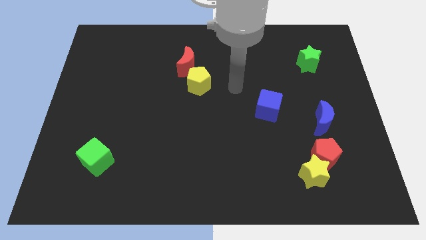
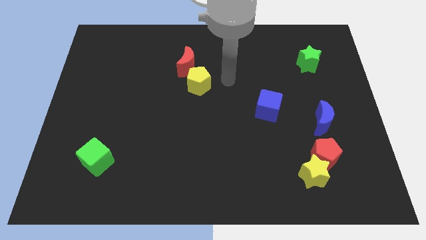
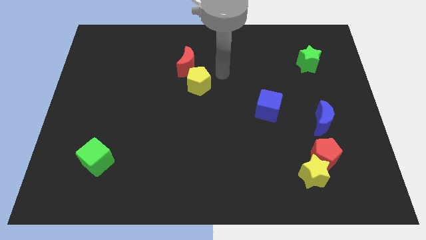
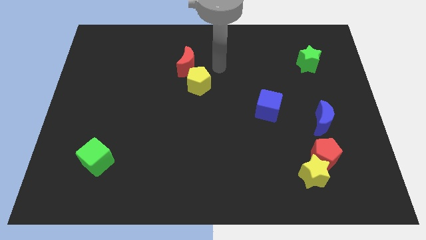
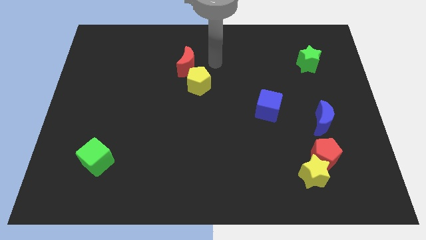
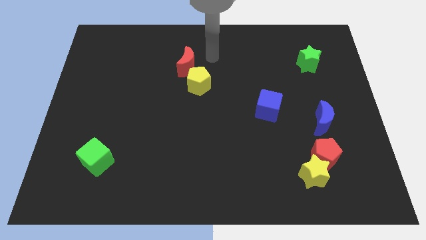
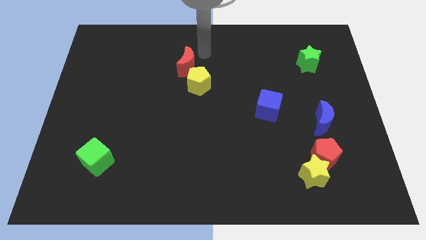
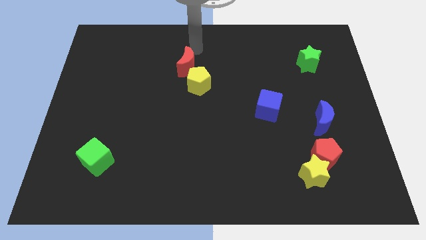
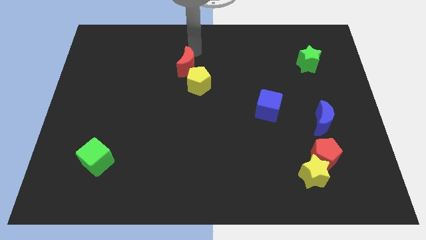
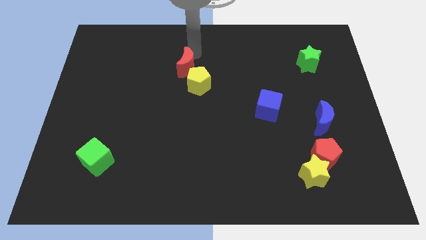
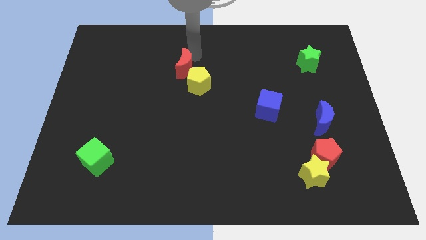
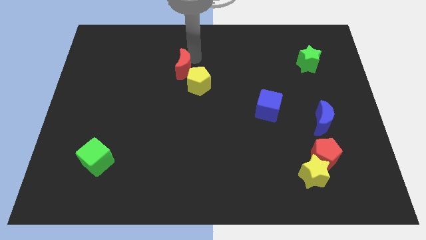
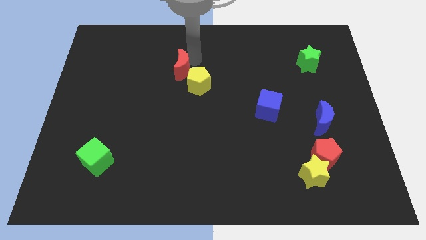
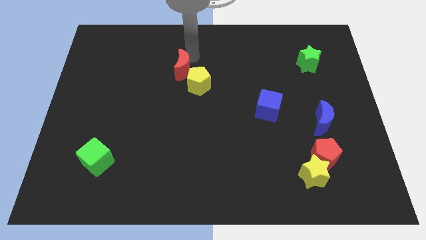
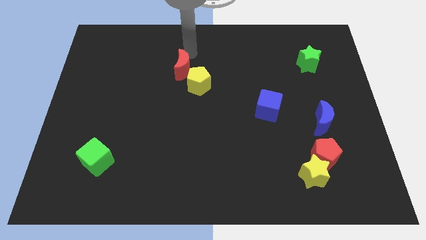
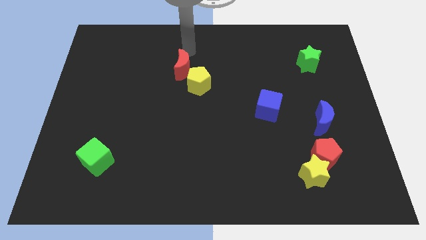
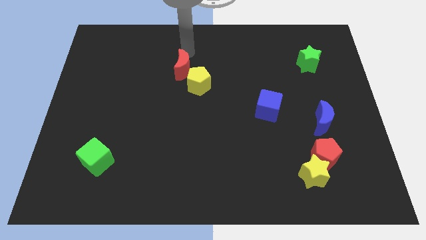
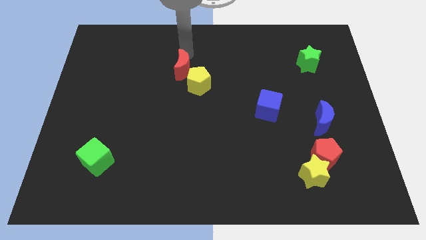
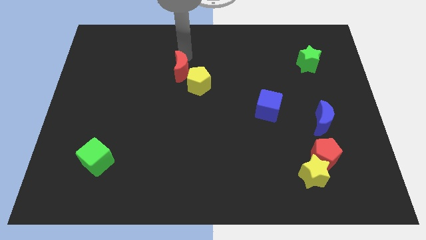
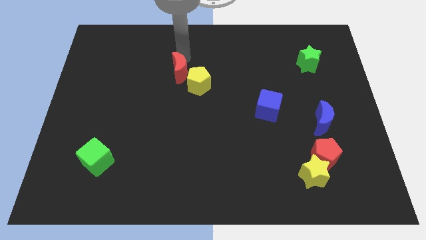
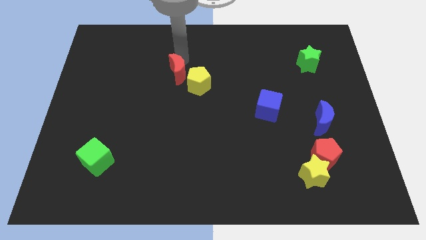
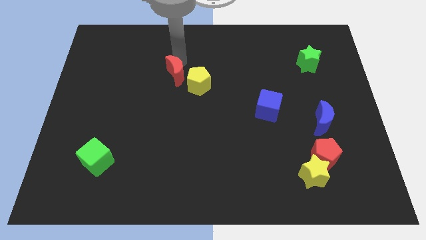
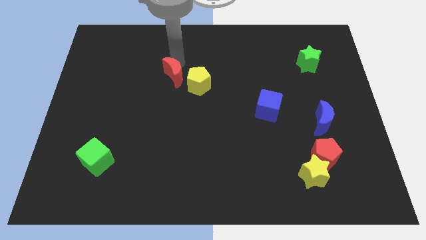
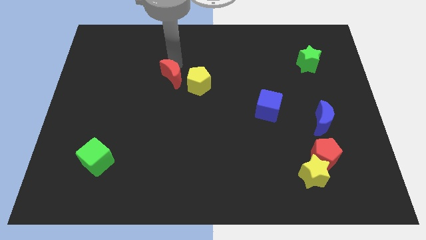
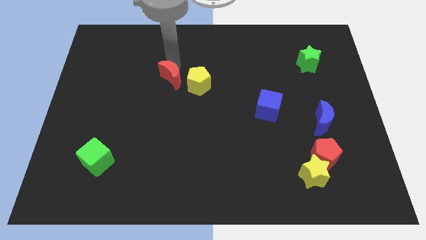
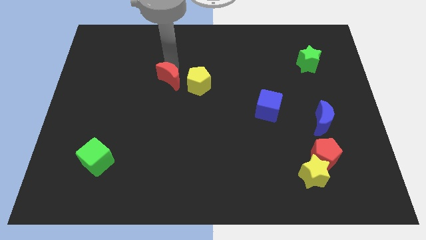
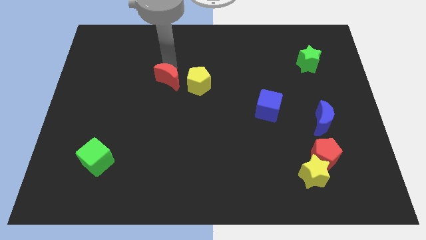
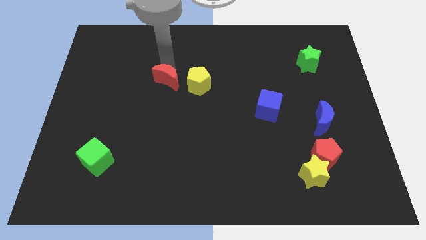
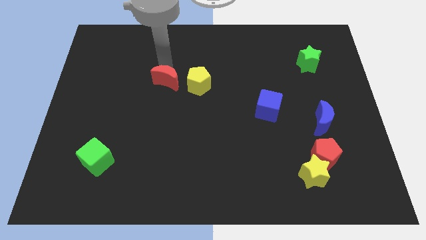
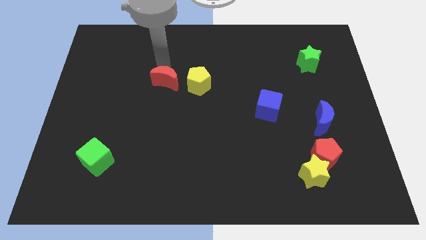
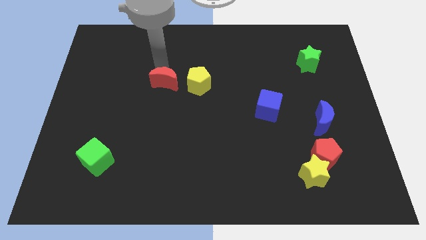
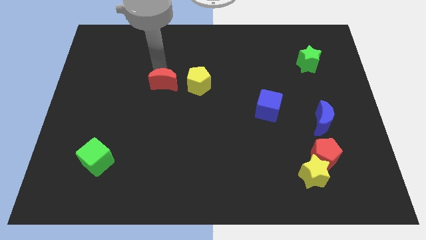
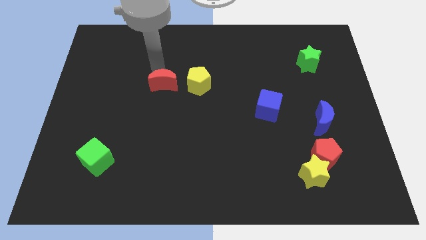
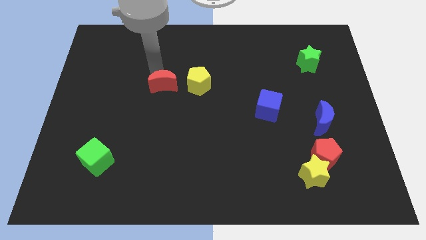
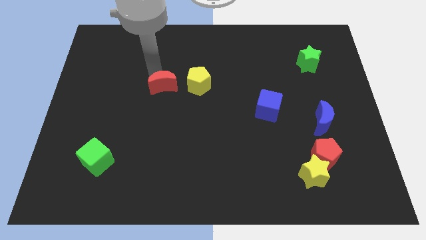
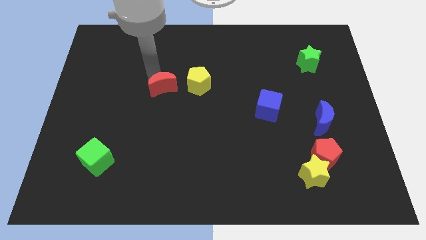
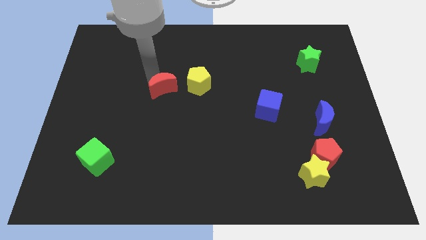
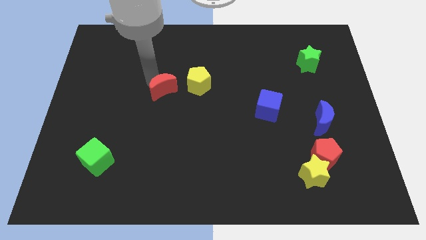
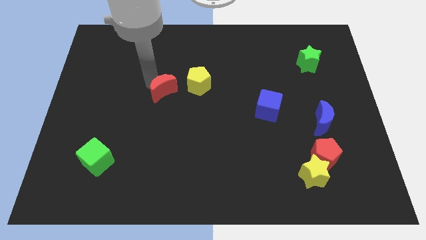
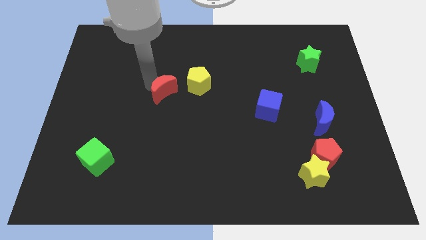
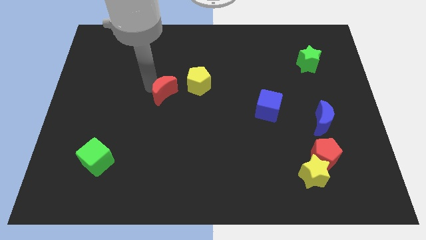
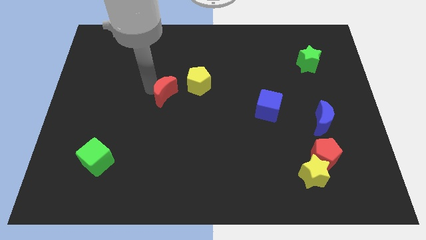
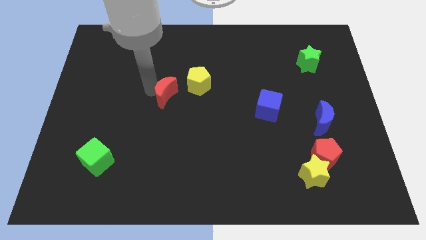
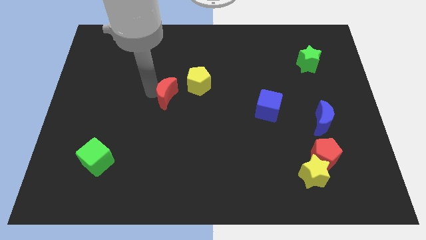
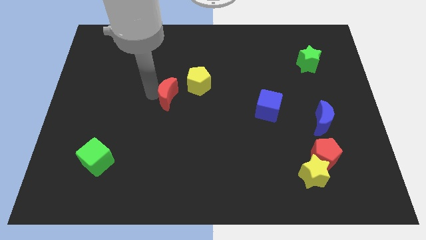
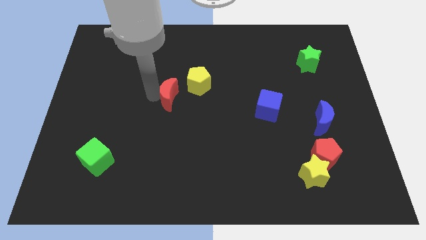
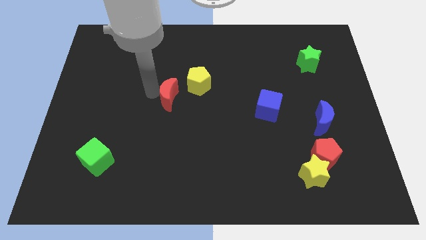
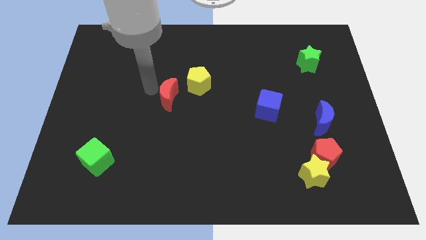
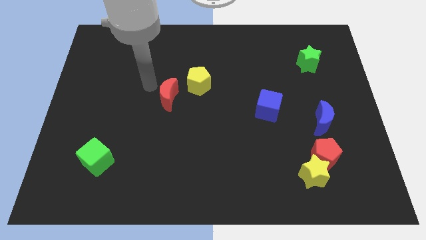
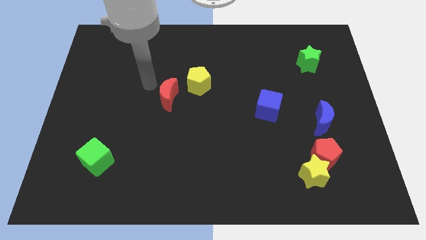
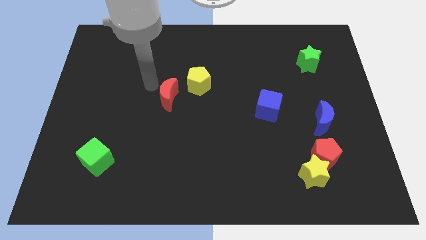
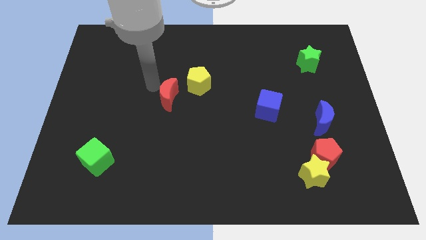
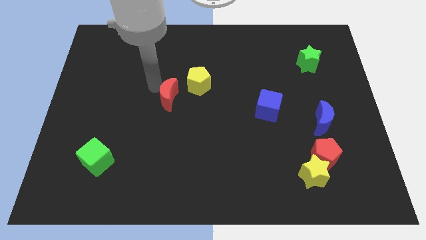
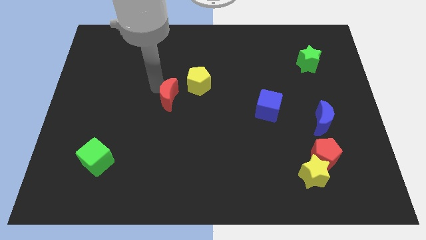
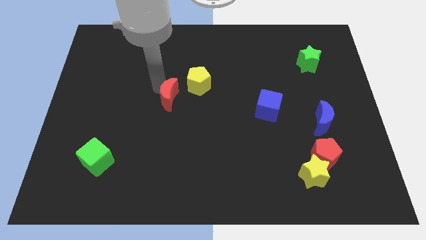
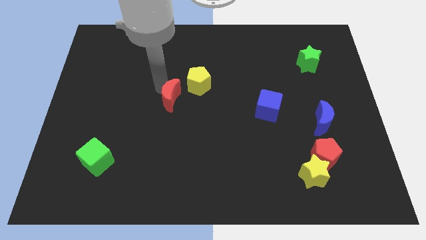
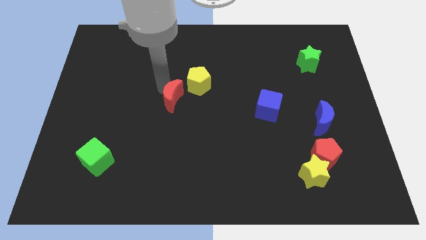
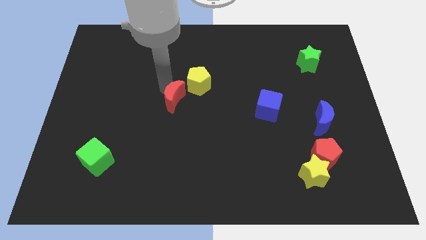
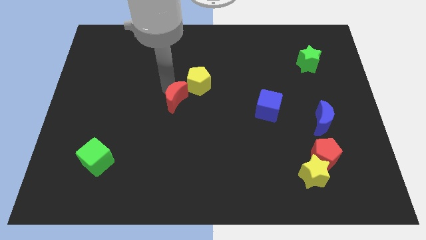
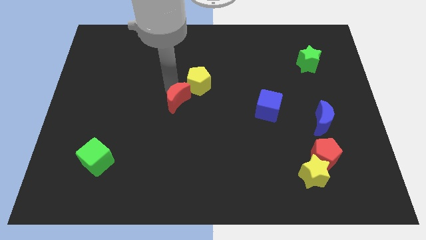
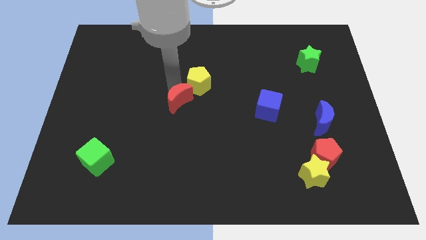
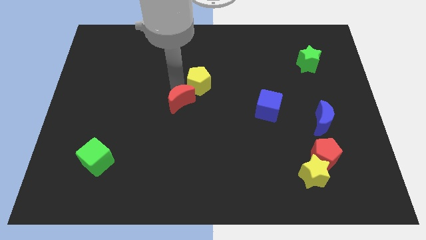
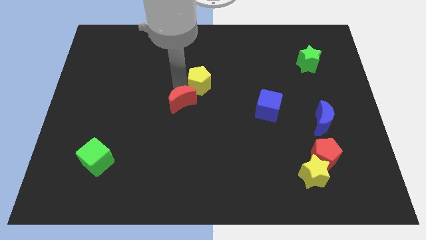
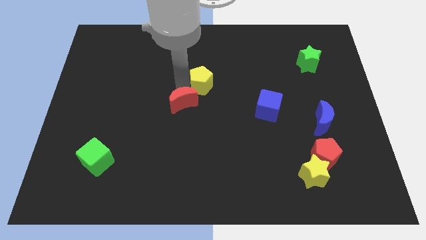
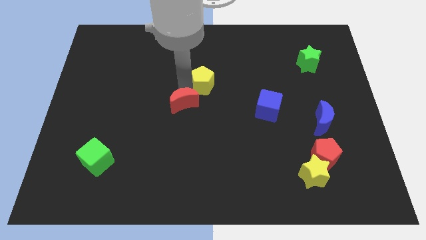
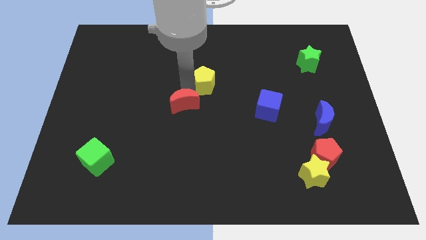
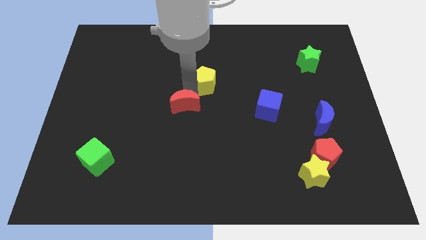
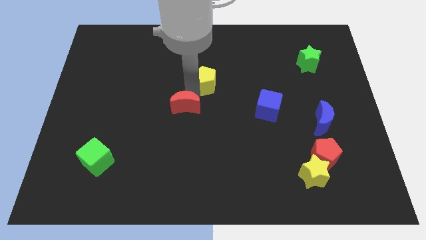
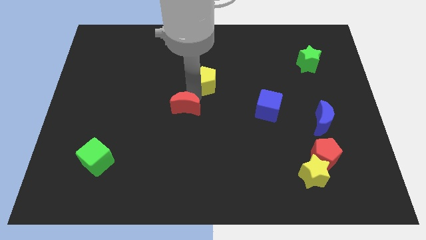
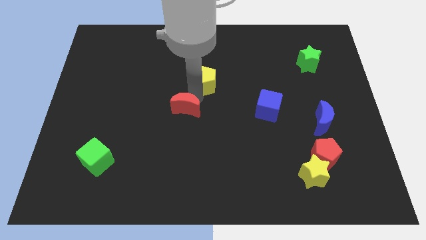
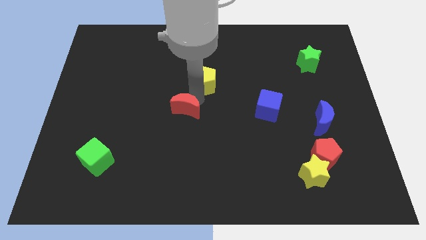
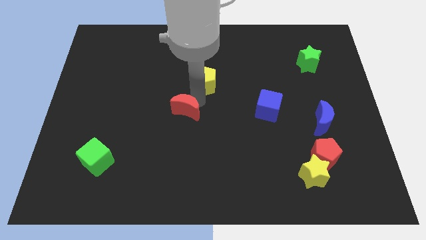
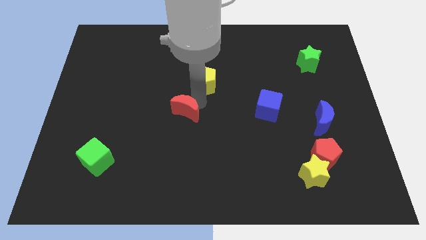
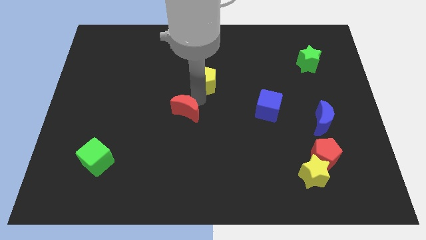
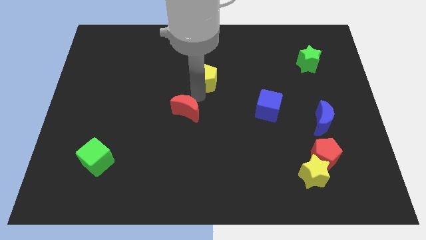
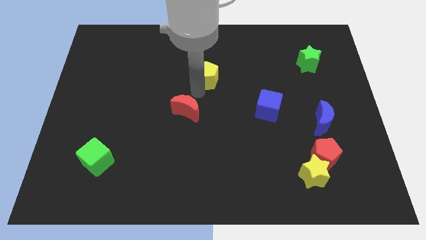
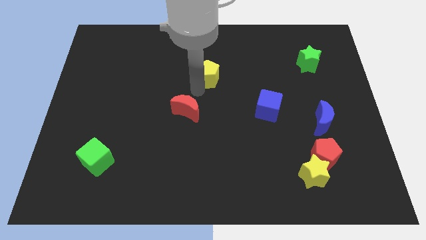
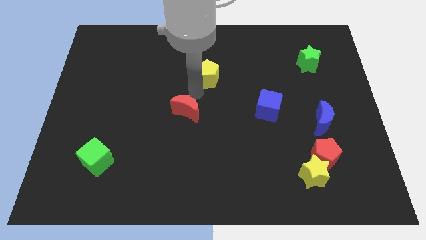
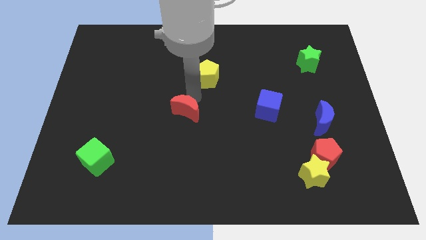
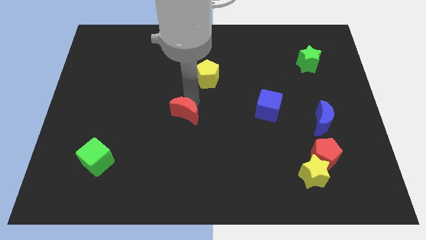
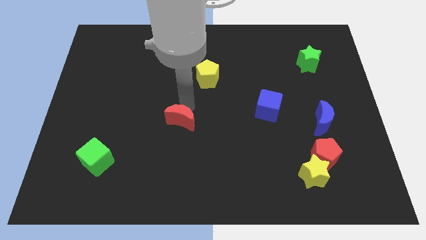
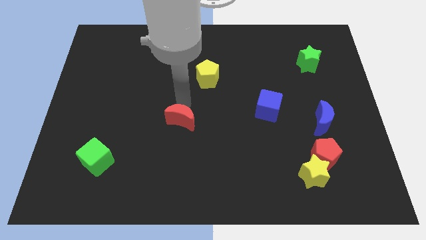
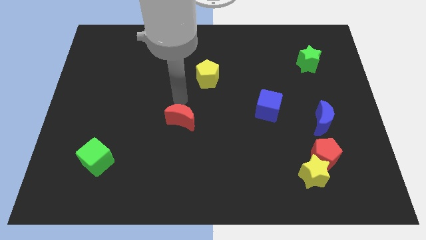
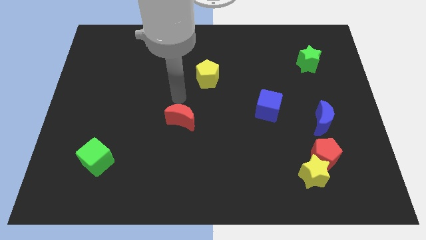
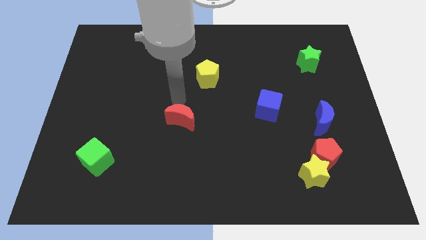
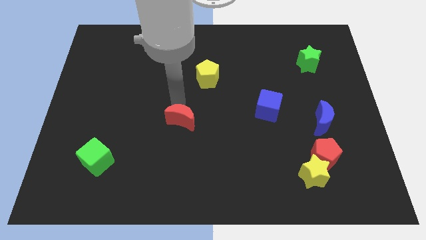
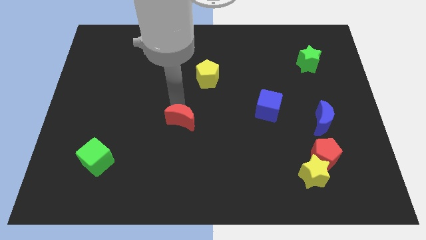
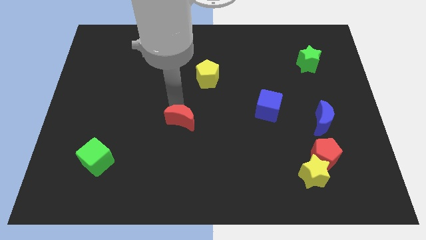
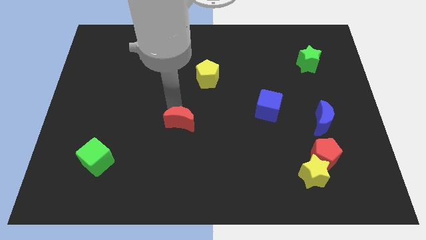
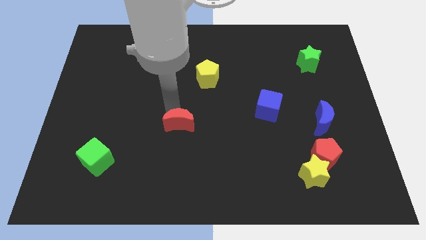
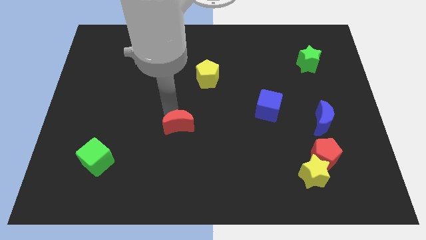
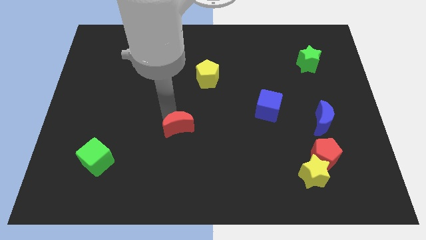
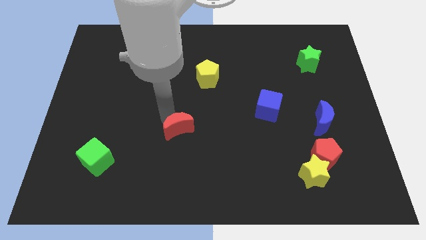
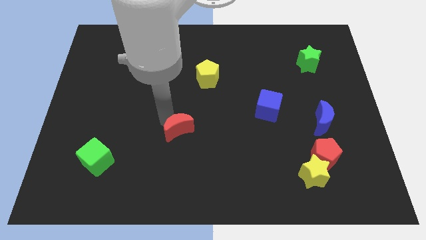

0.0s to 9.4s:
slide the red moon downwards
